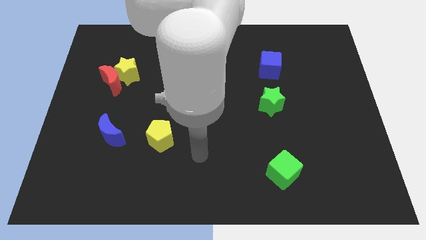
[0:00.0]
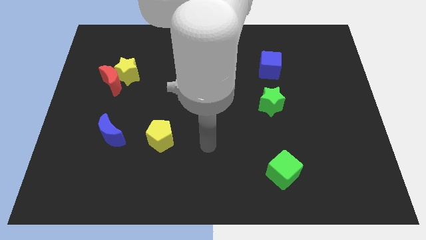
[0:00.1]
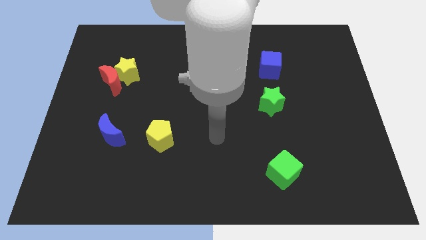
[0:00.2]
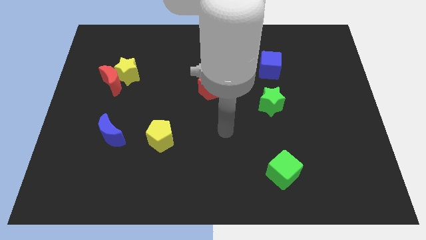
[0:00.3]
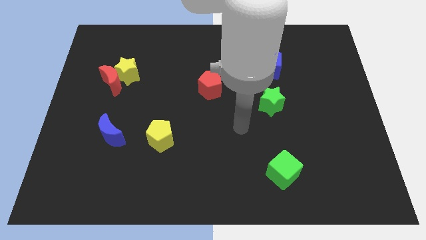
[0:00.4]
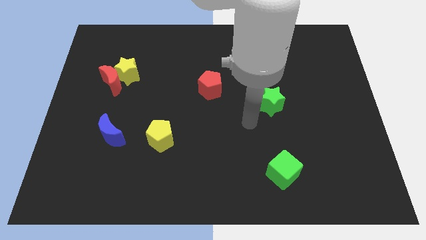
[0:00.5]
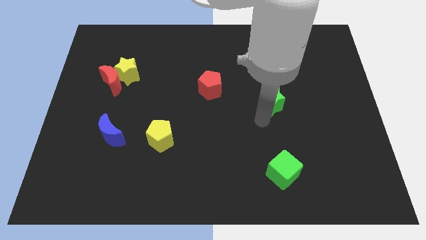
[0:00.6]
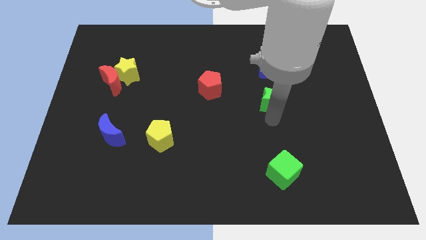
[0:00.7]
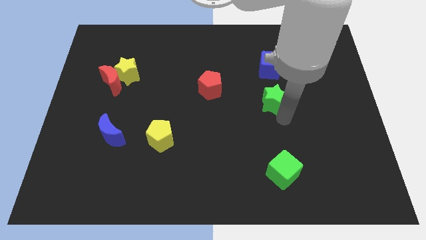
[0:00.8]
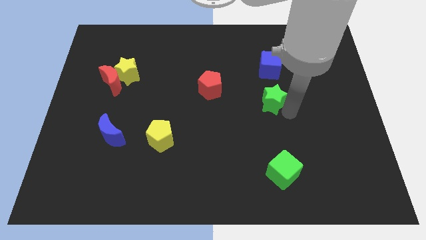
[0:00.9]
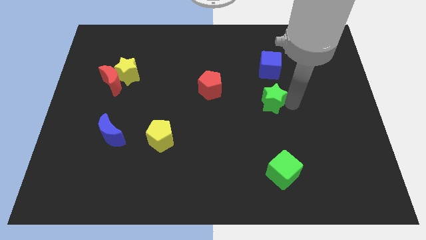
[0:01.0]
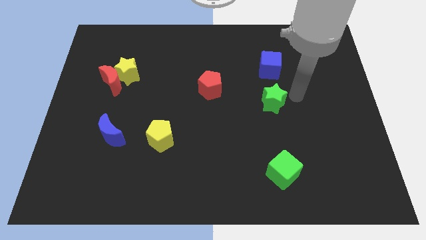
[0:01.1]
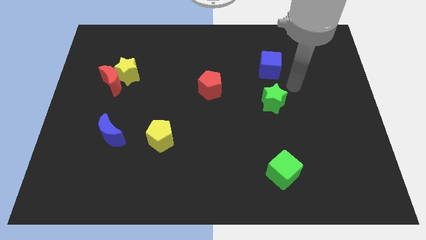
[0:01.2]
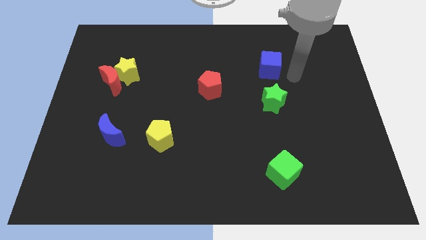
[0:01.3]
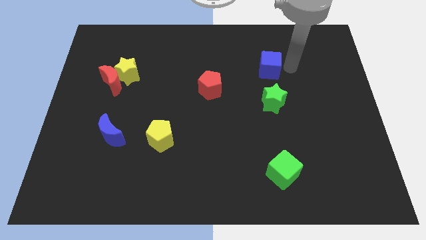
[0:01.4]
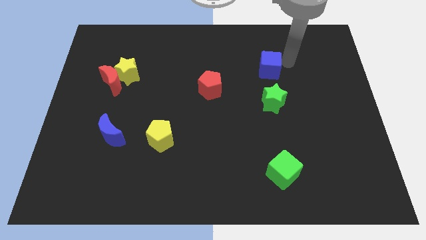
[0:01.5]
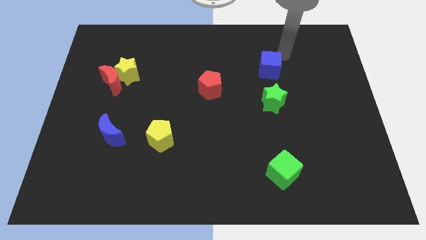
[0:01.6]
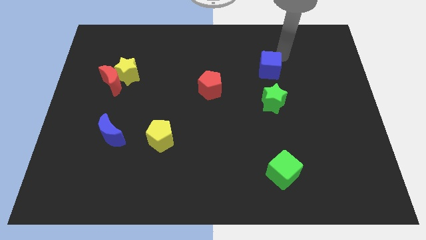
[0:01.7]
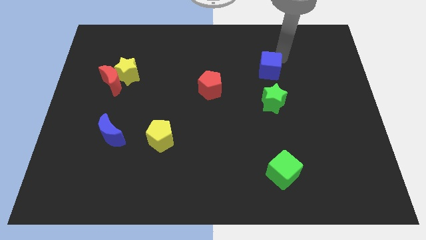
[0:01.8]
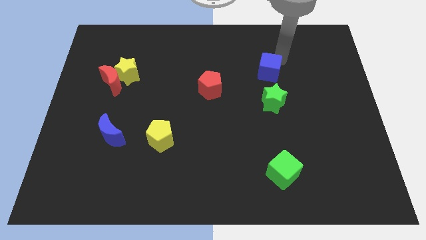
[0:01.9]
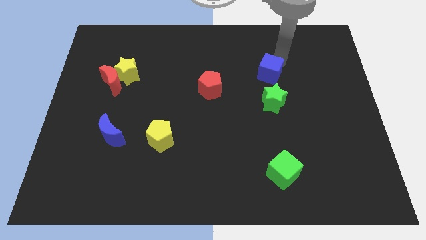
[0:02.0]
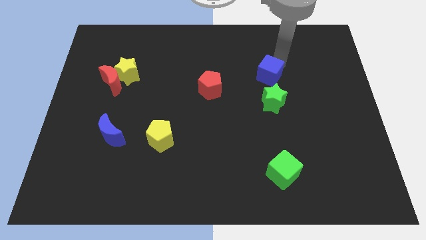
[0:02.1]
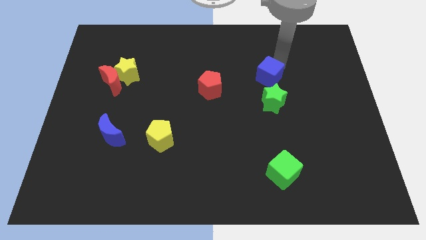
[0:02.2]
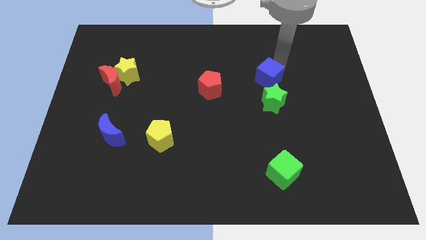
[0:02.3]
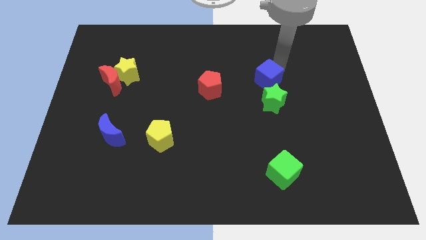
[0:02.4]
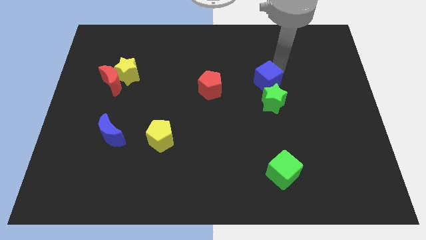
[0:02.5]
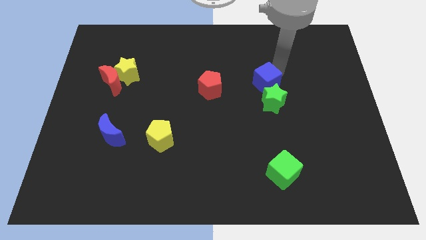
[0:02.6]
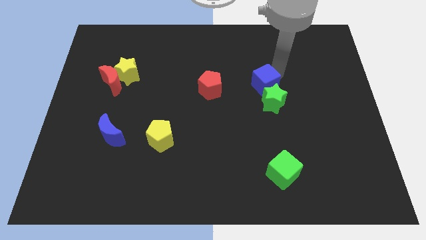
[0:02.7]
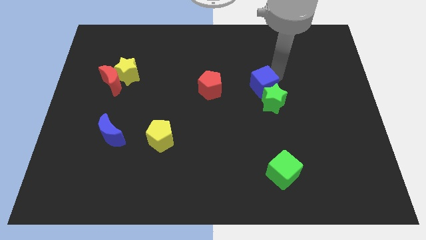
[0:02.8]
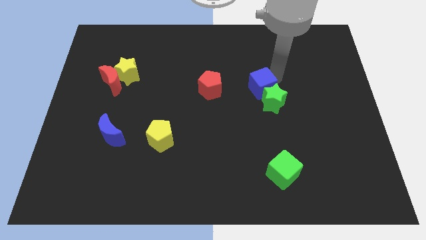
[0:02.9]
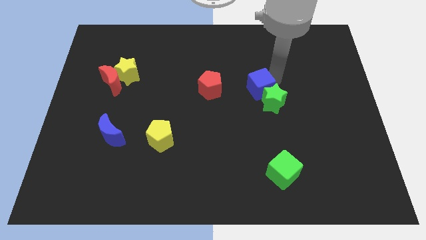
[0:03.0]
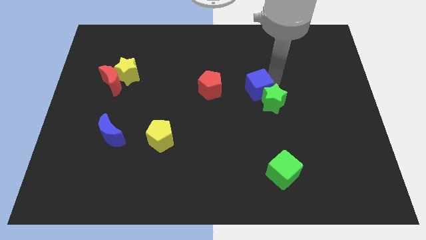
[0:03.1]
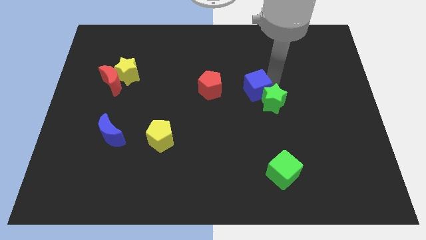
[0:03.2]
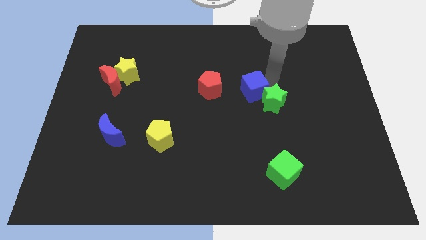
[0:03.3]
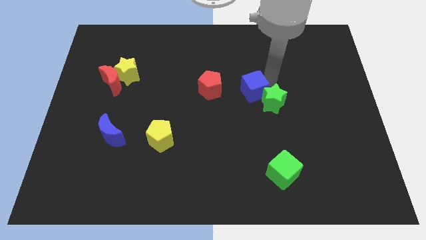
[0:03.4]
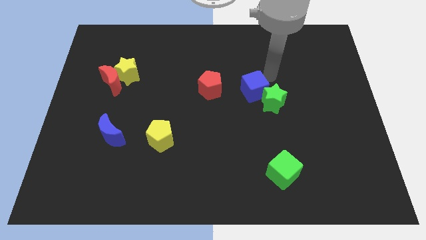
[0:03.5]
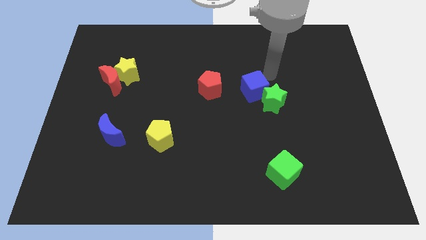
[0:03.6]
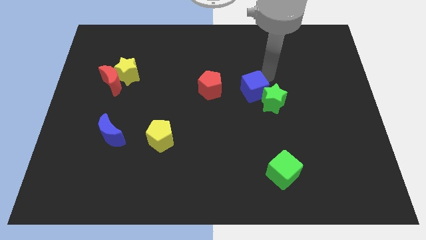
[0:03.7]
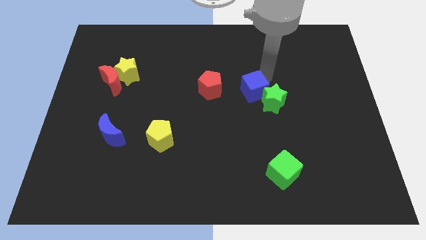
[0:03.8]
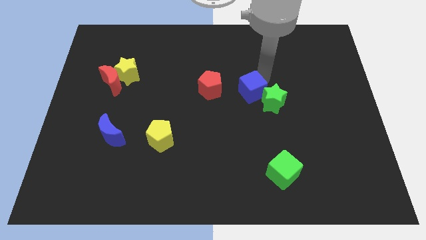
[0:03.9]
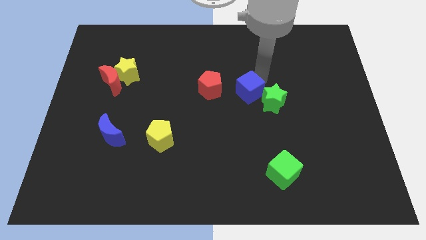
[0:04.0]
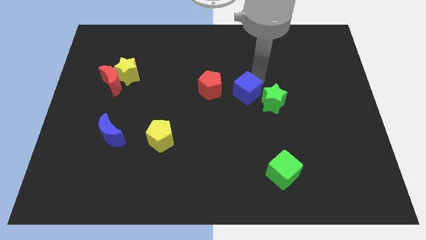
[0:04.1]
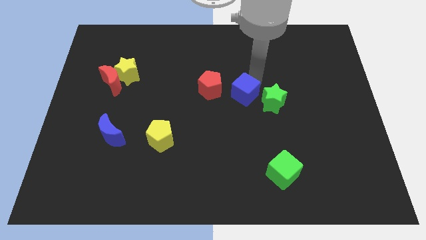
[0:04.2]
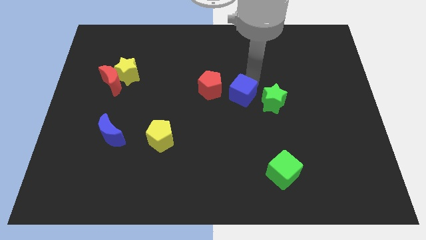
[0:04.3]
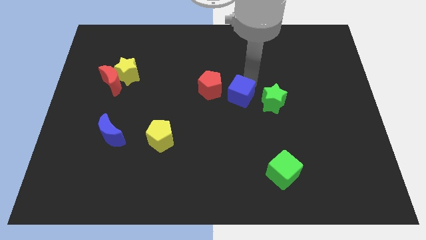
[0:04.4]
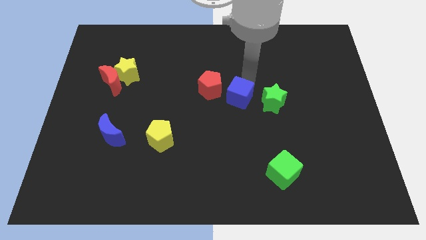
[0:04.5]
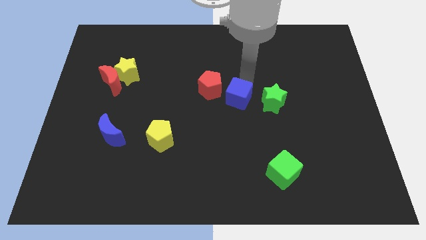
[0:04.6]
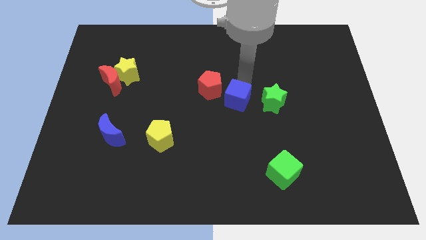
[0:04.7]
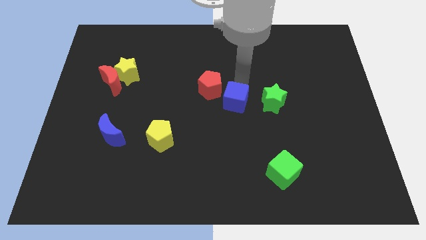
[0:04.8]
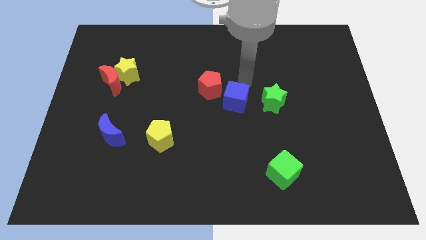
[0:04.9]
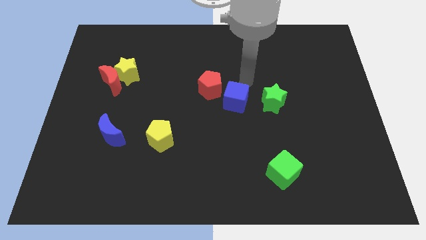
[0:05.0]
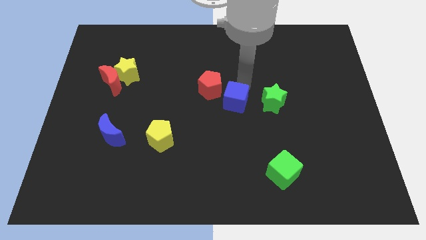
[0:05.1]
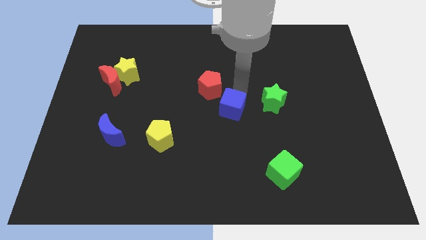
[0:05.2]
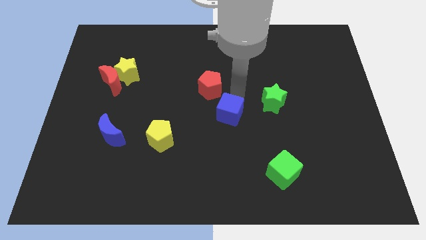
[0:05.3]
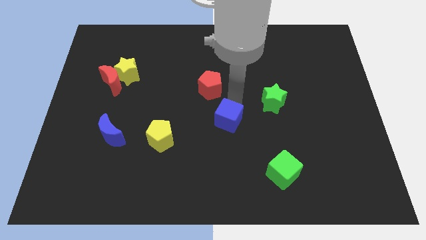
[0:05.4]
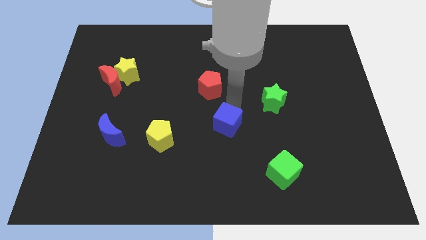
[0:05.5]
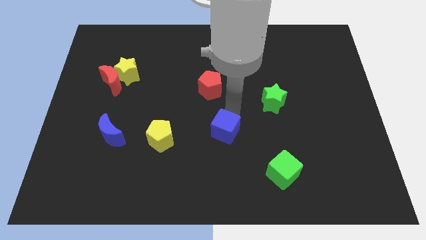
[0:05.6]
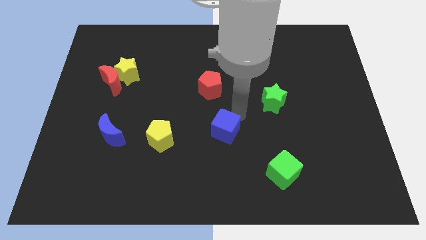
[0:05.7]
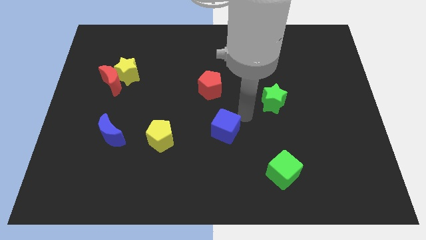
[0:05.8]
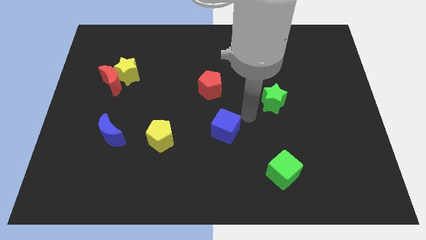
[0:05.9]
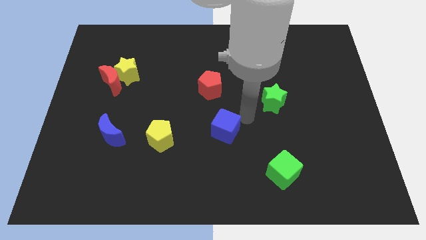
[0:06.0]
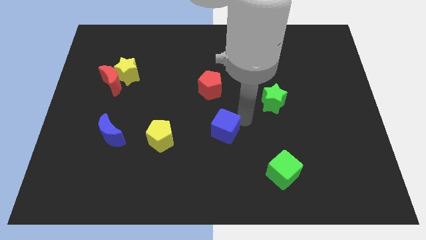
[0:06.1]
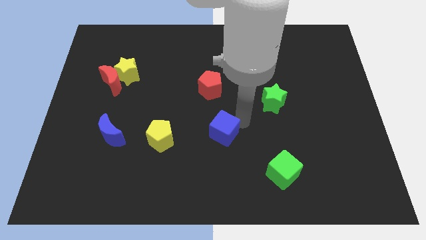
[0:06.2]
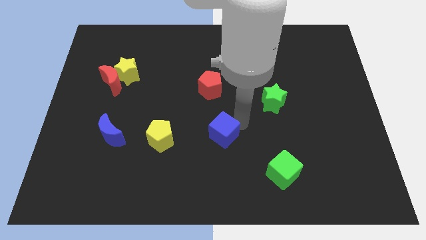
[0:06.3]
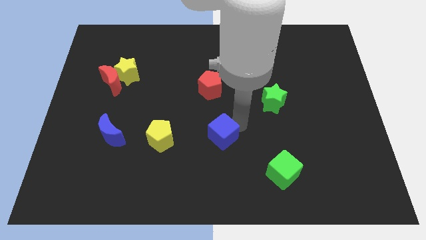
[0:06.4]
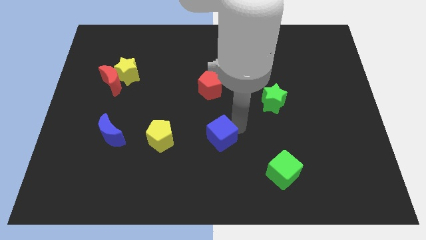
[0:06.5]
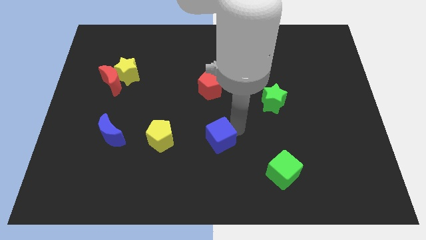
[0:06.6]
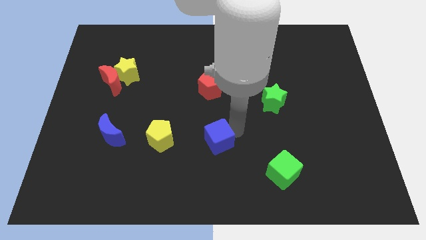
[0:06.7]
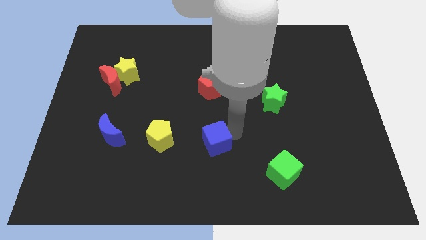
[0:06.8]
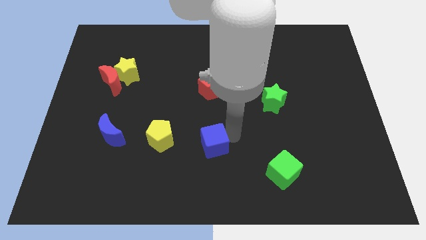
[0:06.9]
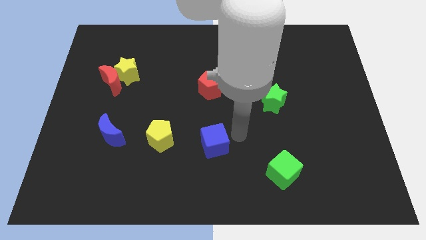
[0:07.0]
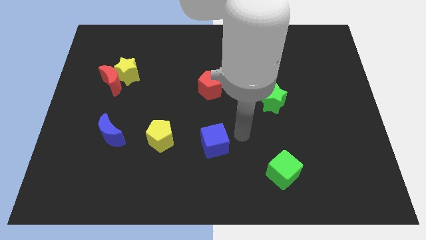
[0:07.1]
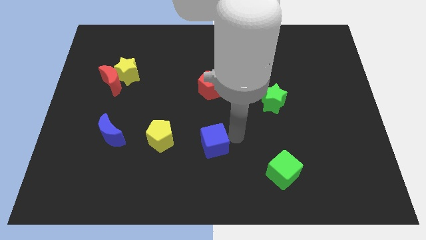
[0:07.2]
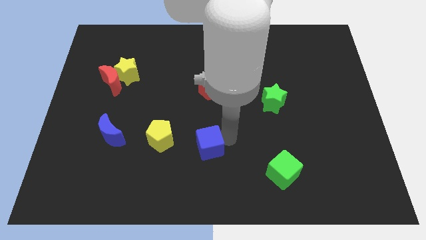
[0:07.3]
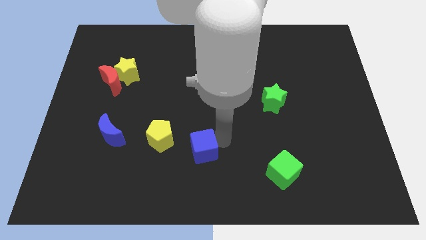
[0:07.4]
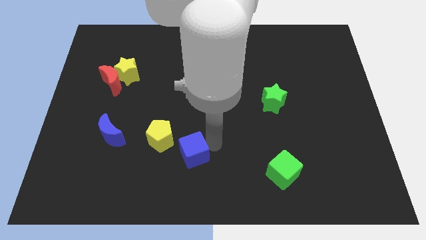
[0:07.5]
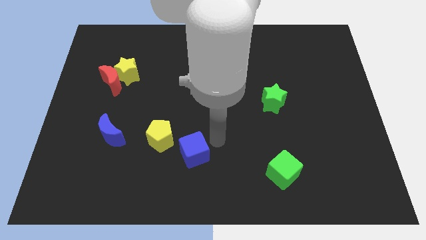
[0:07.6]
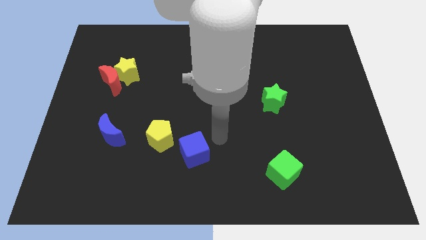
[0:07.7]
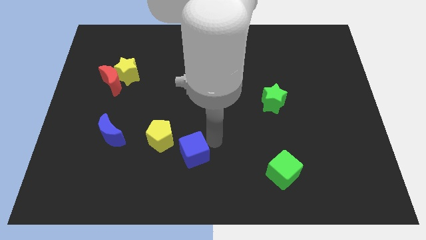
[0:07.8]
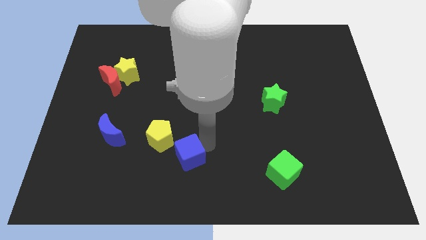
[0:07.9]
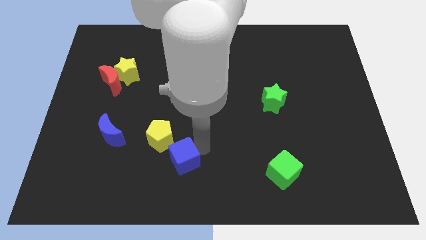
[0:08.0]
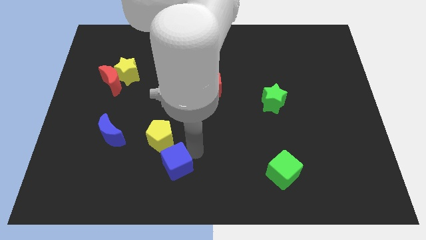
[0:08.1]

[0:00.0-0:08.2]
slide the blue cube to the bottom of the yellow pentagon
